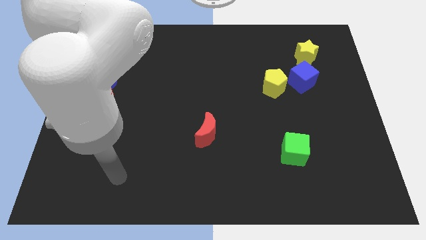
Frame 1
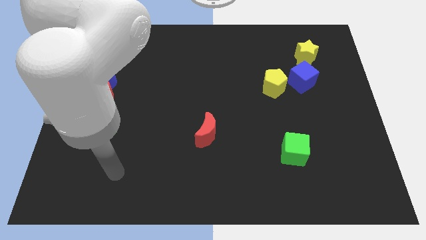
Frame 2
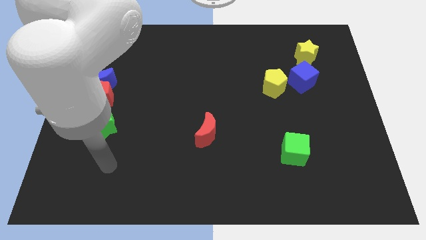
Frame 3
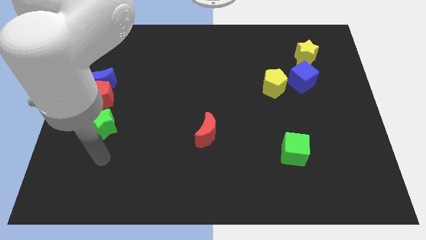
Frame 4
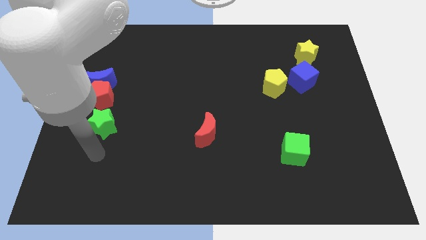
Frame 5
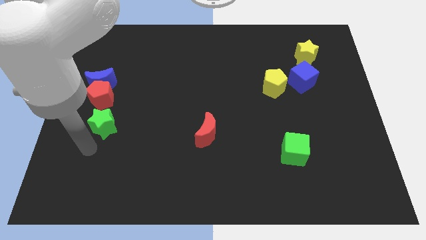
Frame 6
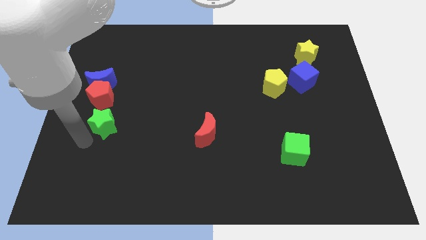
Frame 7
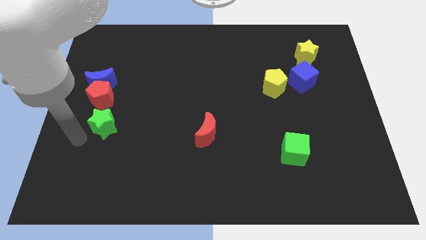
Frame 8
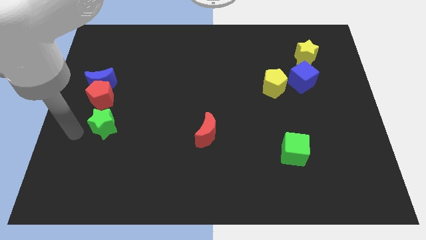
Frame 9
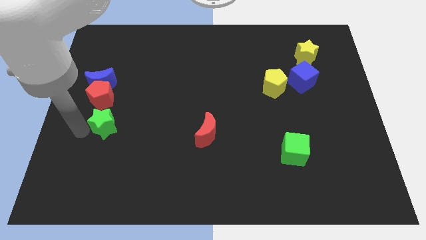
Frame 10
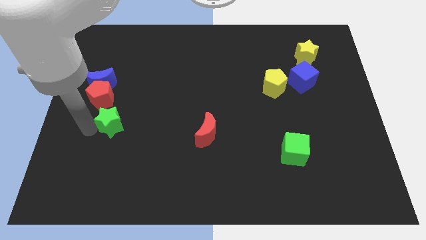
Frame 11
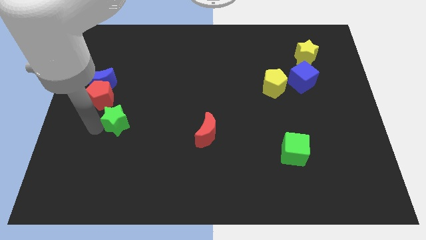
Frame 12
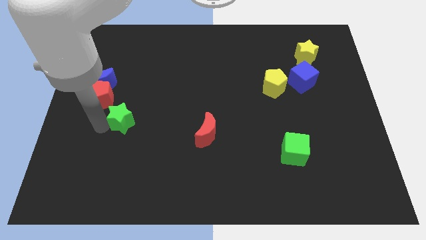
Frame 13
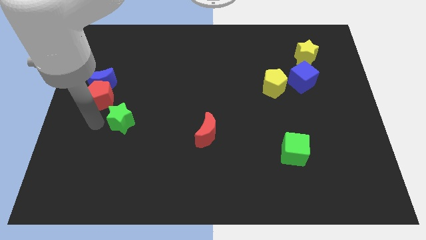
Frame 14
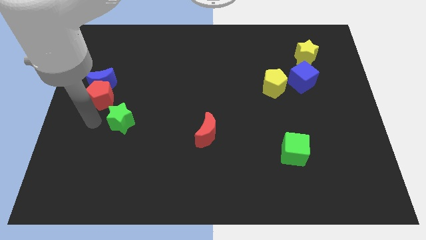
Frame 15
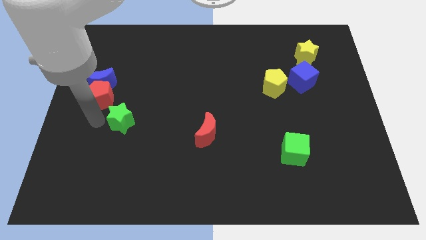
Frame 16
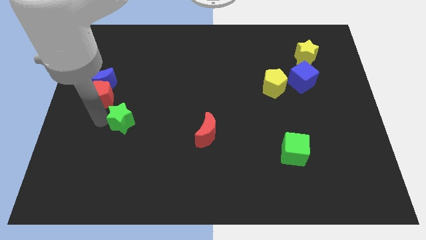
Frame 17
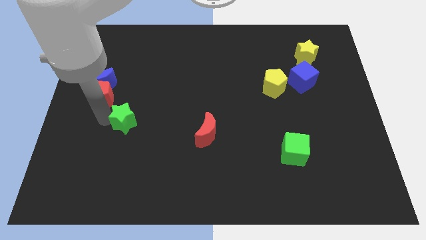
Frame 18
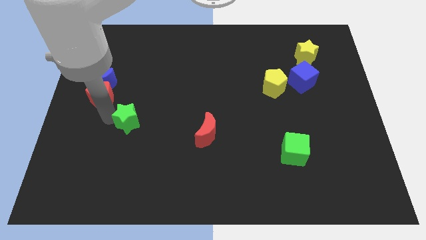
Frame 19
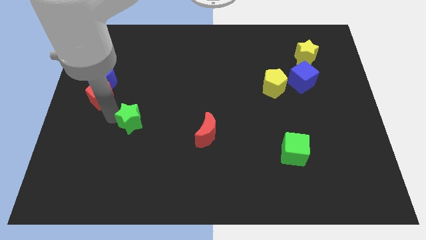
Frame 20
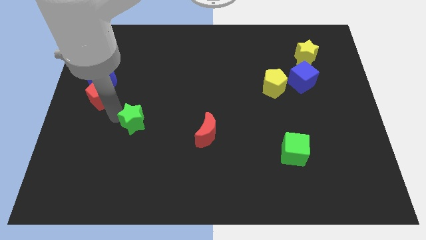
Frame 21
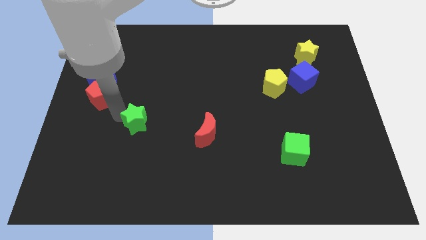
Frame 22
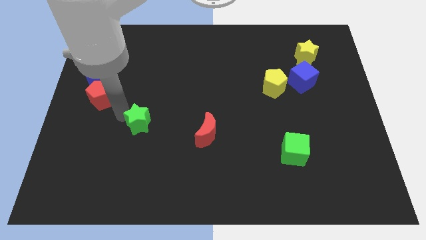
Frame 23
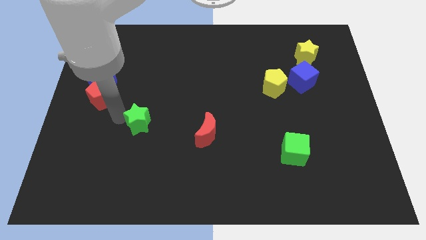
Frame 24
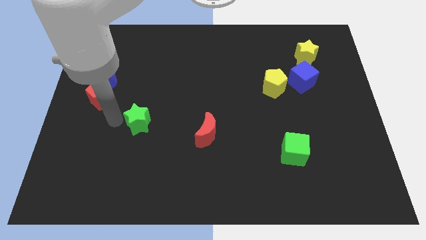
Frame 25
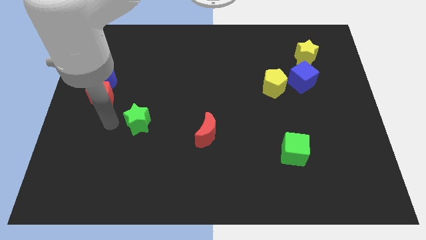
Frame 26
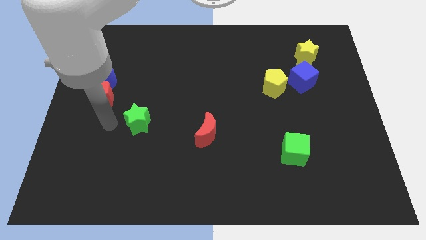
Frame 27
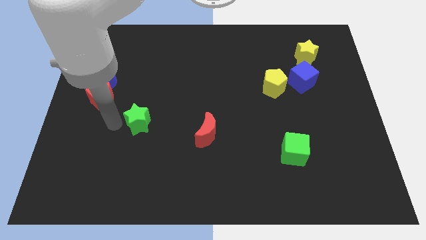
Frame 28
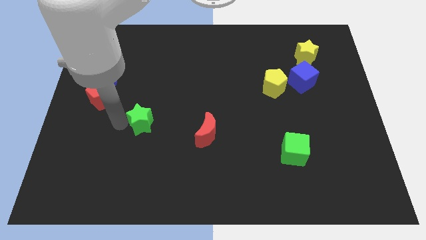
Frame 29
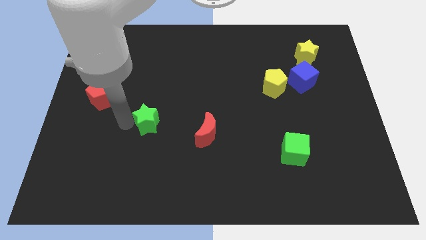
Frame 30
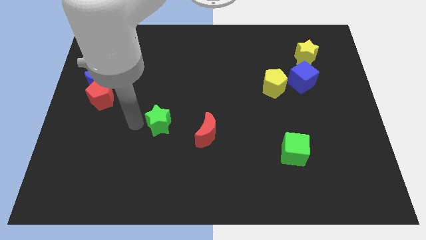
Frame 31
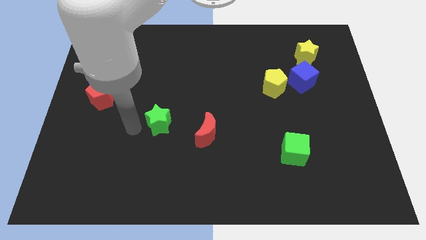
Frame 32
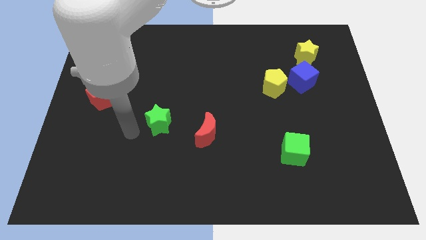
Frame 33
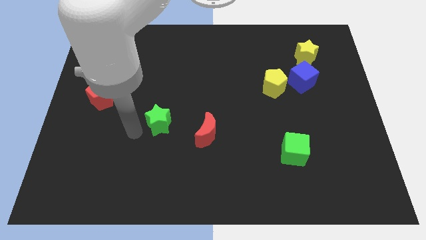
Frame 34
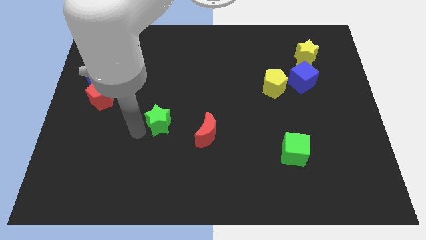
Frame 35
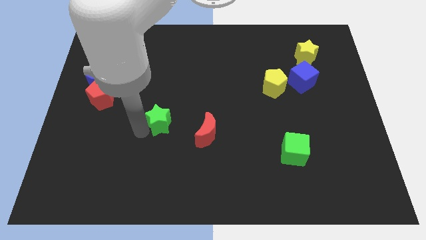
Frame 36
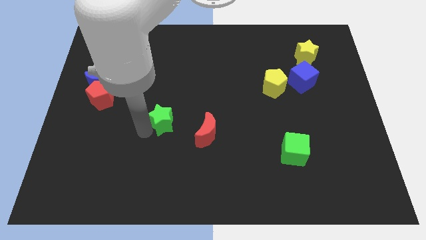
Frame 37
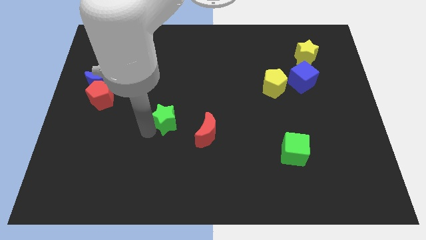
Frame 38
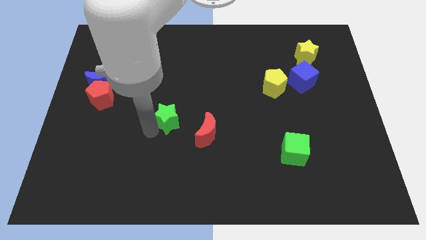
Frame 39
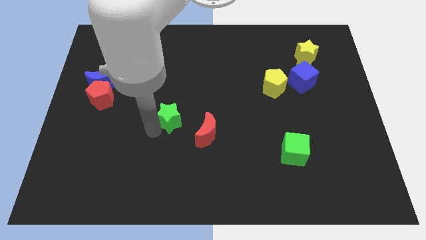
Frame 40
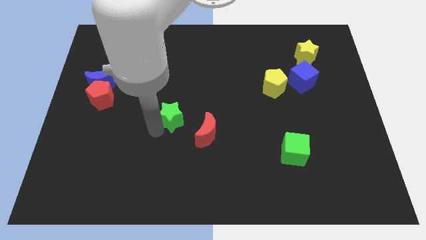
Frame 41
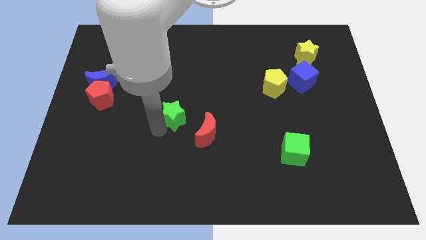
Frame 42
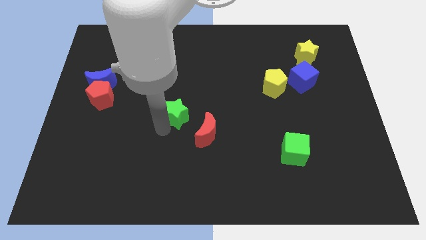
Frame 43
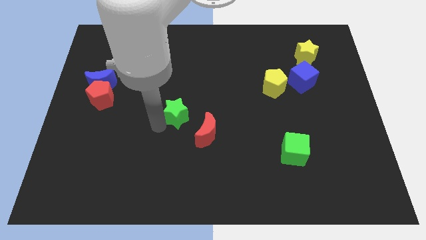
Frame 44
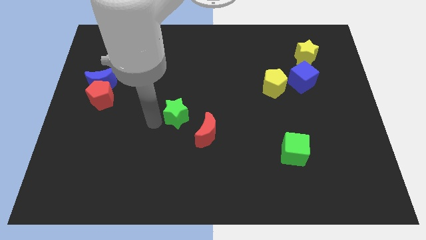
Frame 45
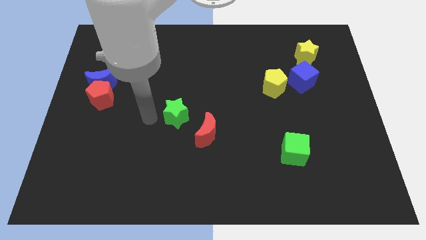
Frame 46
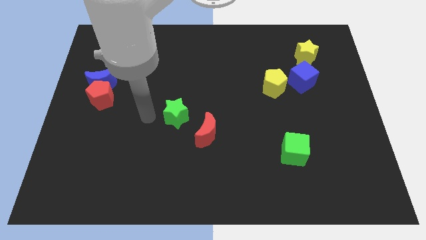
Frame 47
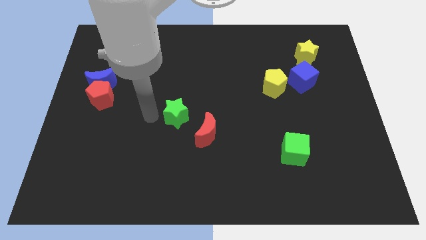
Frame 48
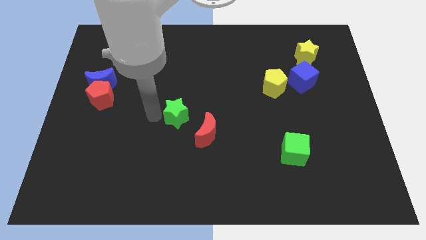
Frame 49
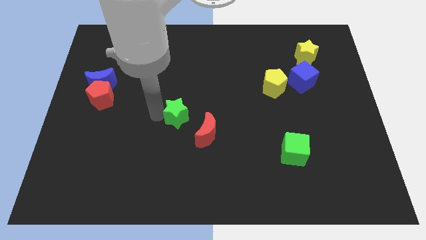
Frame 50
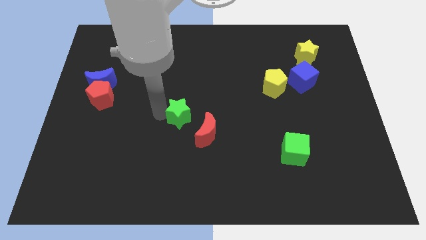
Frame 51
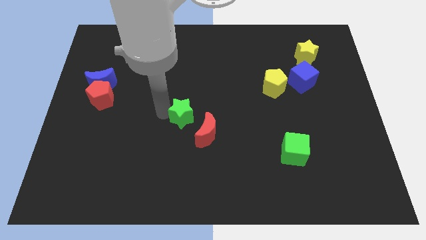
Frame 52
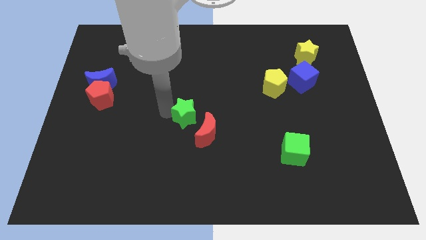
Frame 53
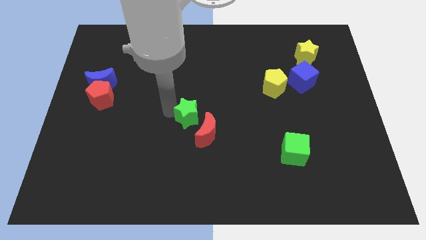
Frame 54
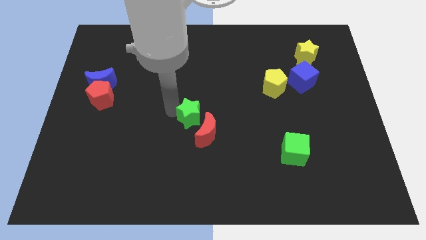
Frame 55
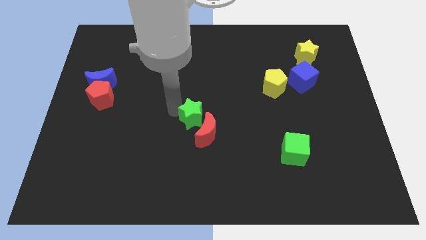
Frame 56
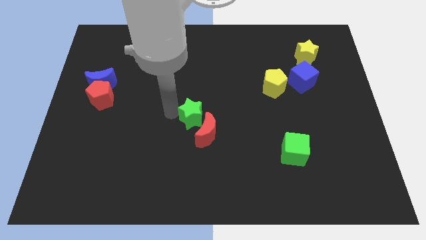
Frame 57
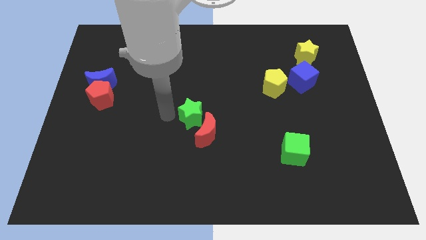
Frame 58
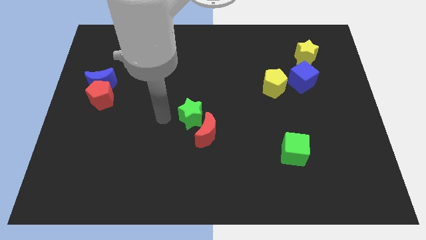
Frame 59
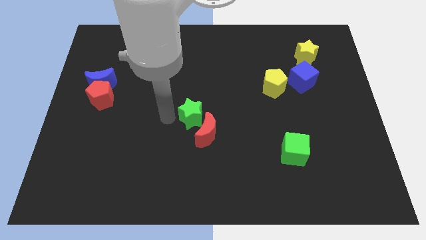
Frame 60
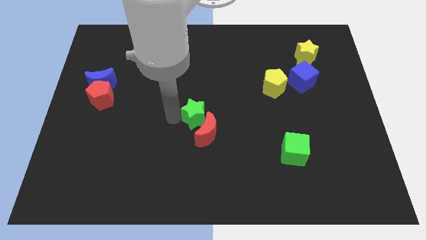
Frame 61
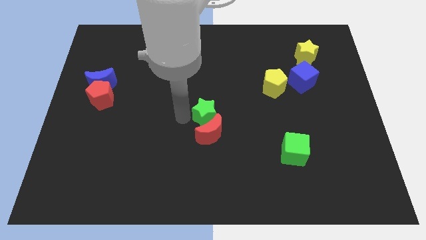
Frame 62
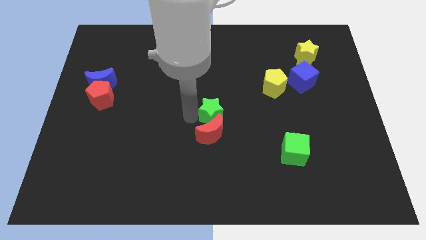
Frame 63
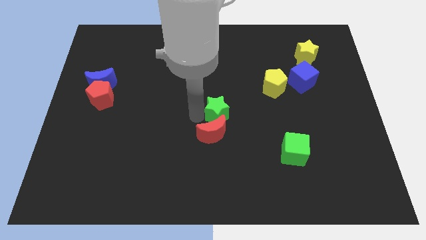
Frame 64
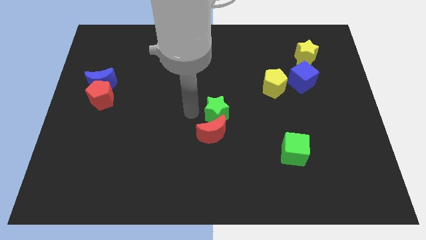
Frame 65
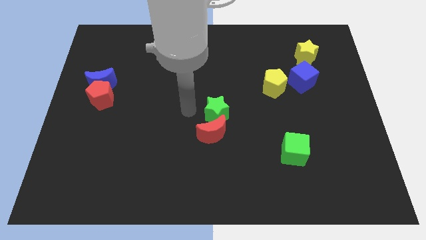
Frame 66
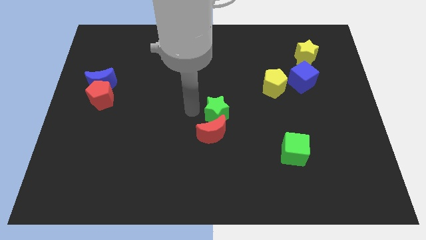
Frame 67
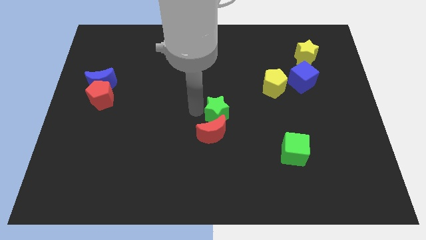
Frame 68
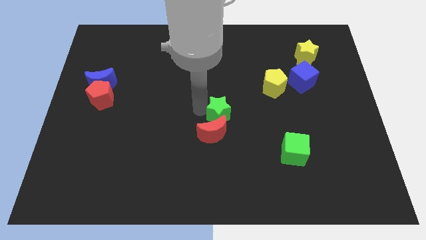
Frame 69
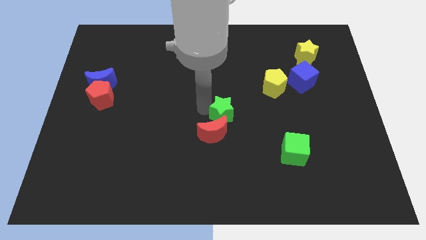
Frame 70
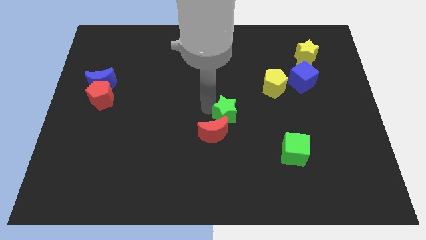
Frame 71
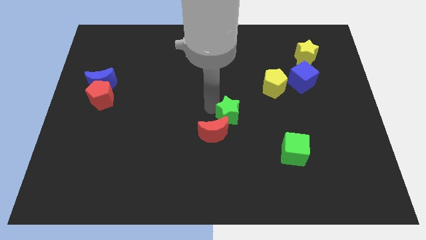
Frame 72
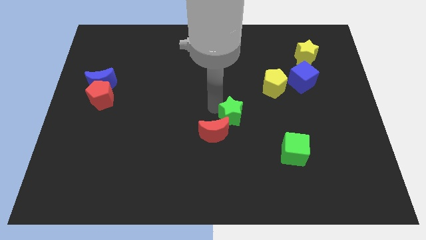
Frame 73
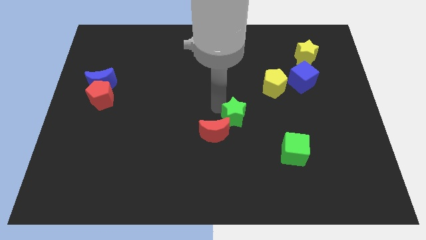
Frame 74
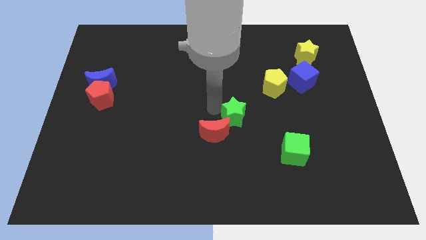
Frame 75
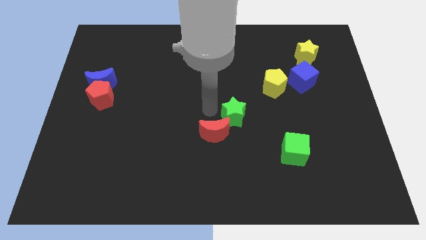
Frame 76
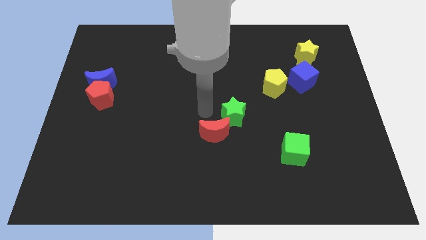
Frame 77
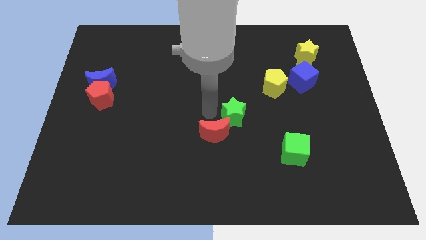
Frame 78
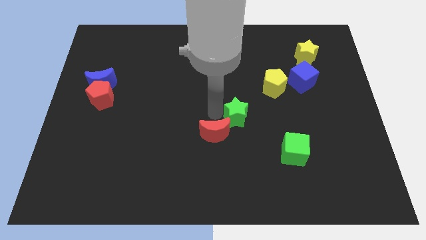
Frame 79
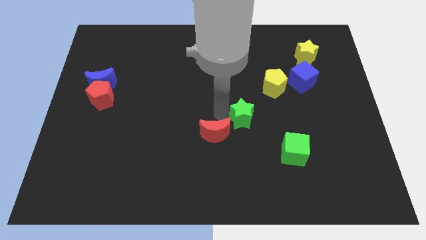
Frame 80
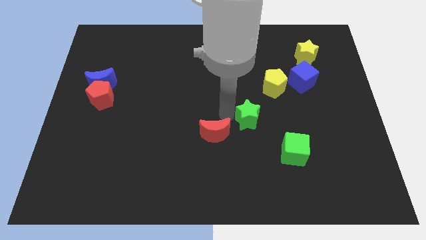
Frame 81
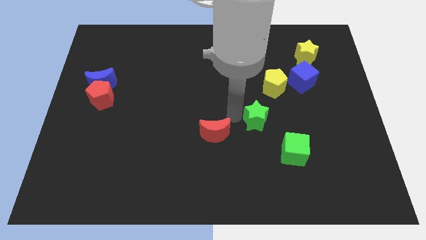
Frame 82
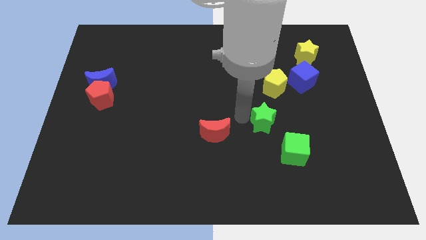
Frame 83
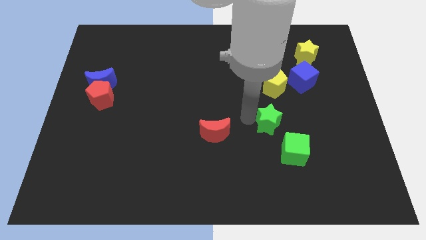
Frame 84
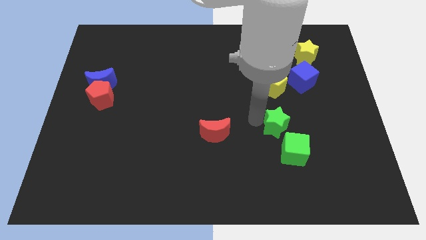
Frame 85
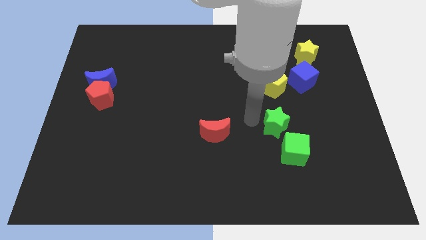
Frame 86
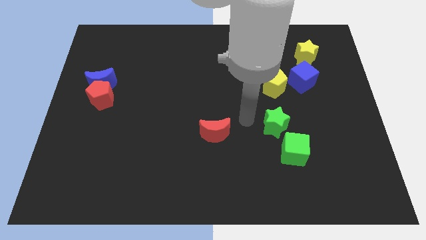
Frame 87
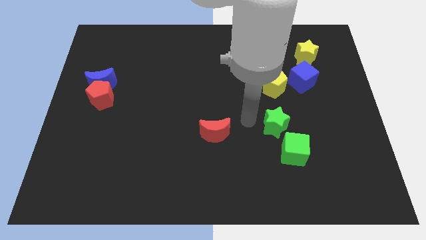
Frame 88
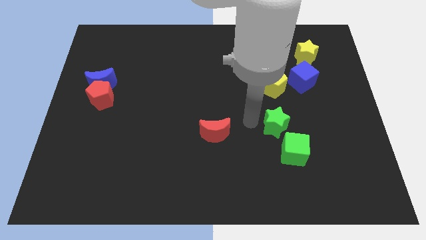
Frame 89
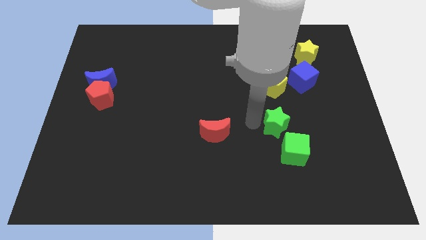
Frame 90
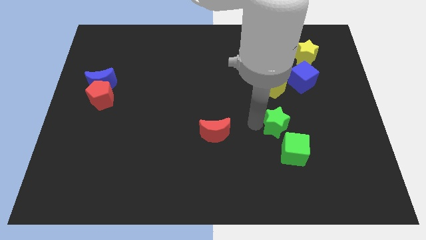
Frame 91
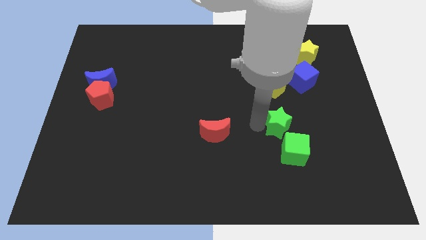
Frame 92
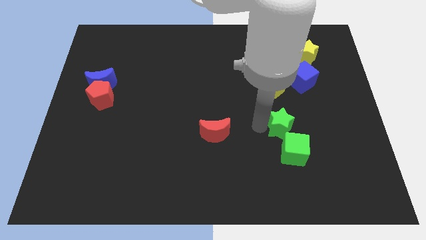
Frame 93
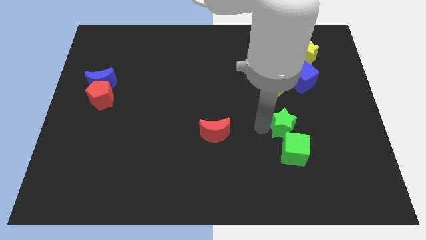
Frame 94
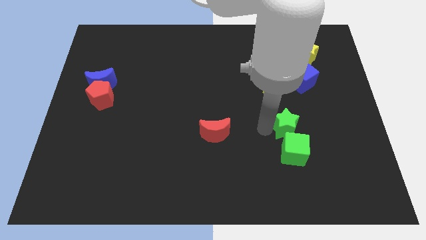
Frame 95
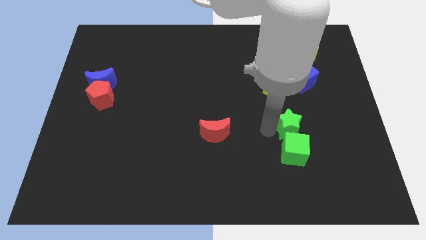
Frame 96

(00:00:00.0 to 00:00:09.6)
put the green star diagonally up and to the right of the green cube
